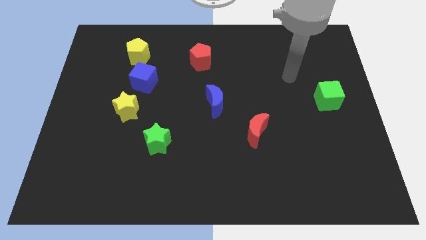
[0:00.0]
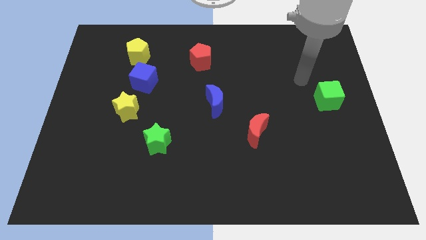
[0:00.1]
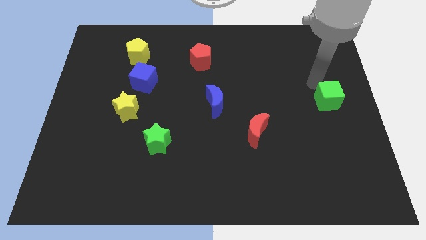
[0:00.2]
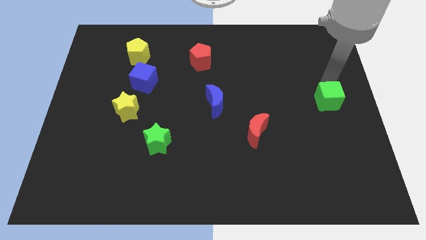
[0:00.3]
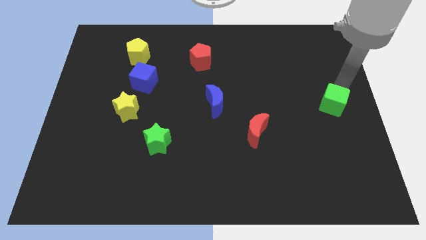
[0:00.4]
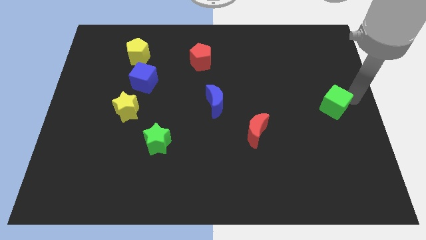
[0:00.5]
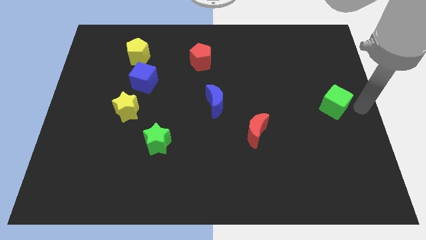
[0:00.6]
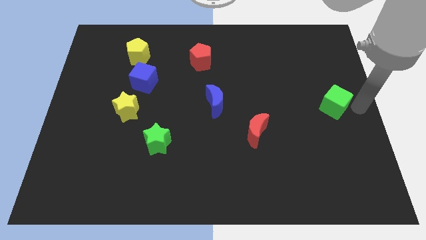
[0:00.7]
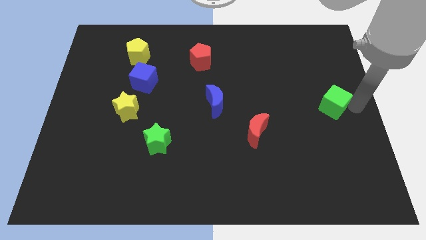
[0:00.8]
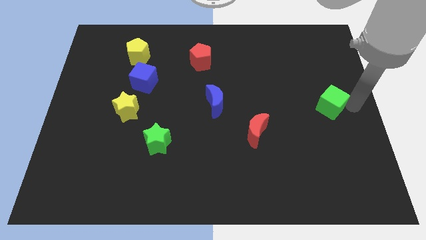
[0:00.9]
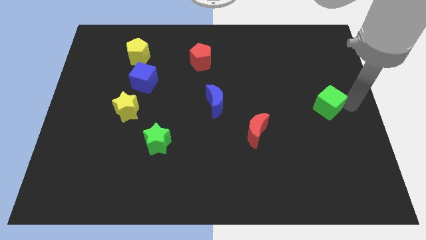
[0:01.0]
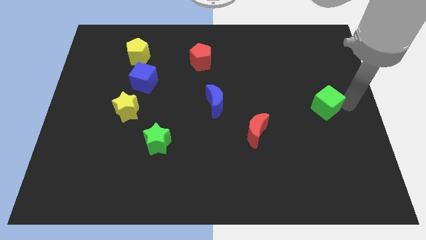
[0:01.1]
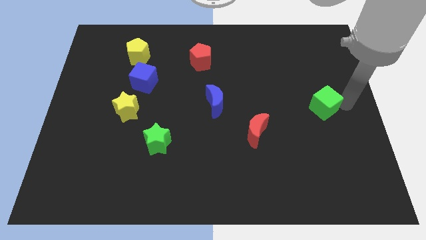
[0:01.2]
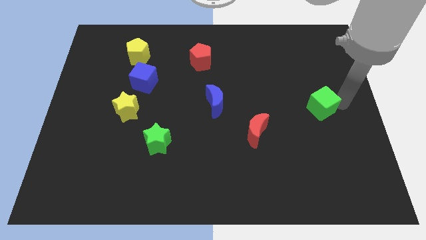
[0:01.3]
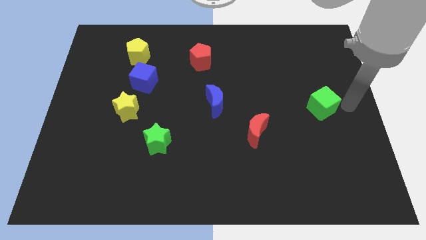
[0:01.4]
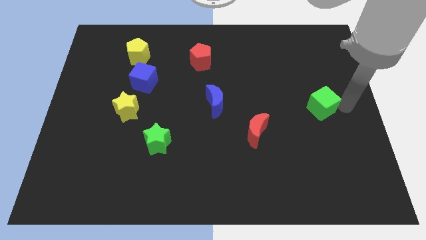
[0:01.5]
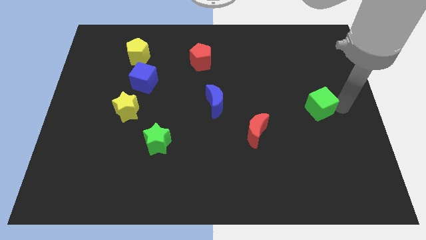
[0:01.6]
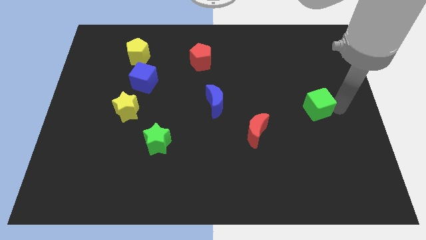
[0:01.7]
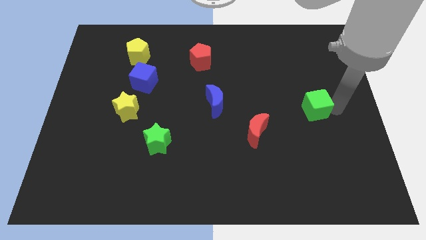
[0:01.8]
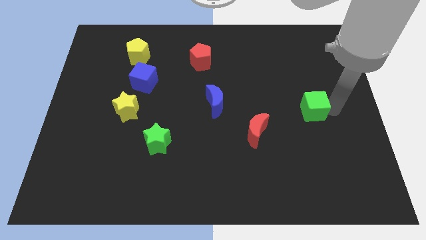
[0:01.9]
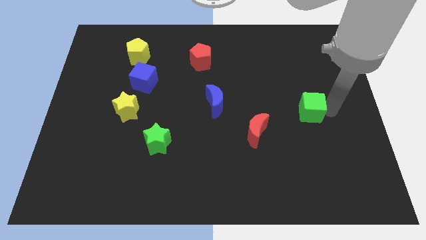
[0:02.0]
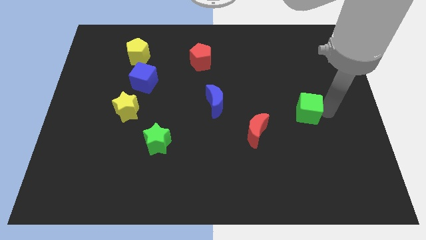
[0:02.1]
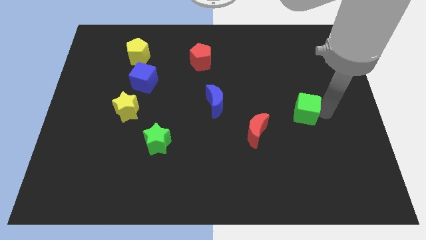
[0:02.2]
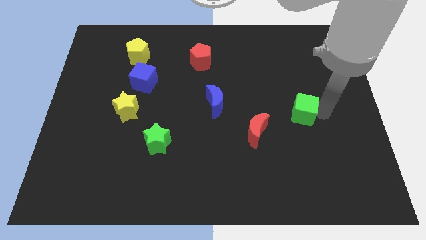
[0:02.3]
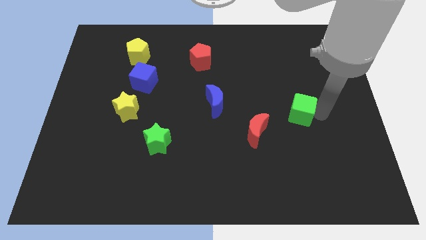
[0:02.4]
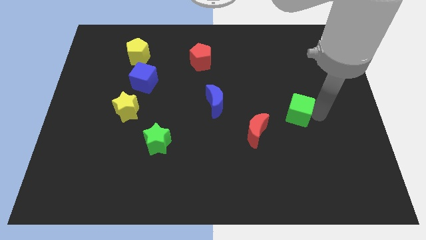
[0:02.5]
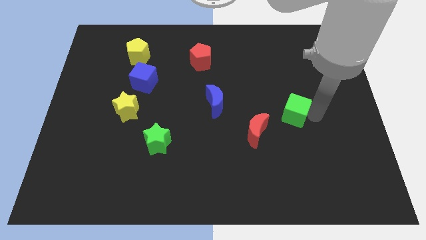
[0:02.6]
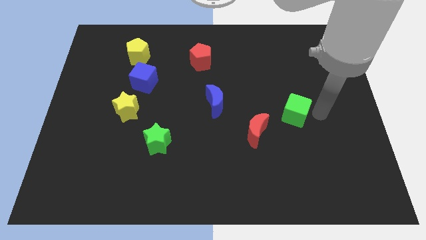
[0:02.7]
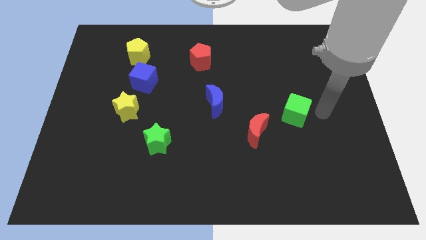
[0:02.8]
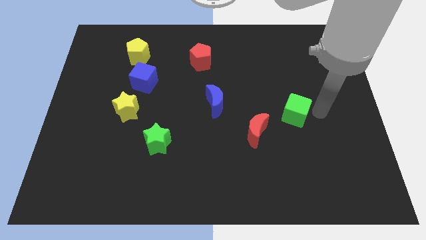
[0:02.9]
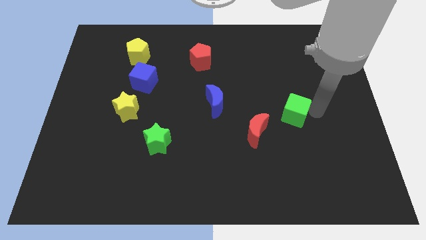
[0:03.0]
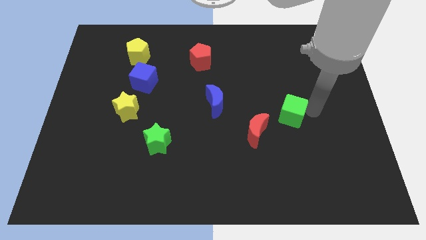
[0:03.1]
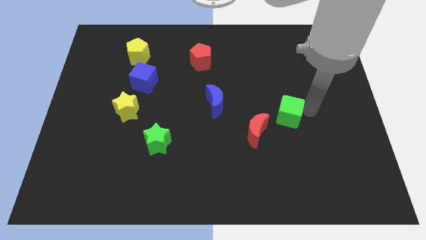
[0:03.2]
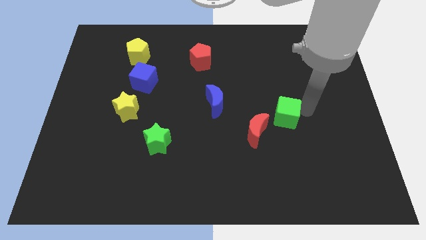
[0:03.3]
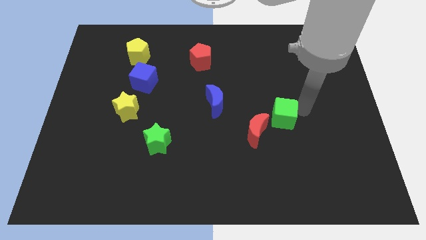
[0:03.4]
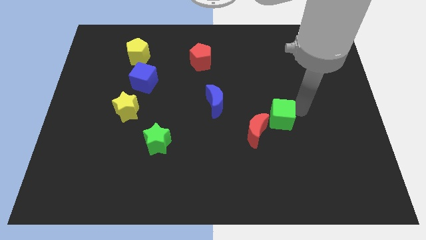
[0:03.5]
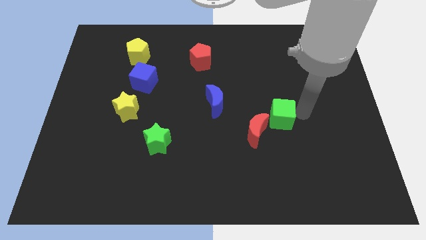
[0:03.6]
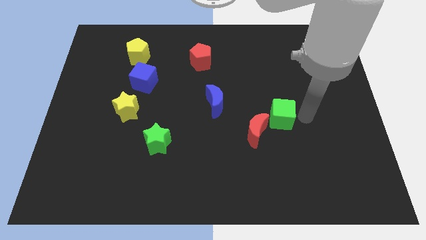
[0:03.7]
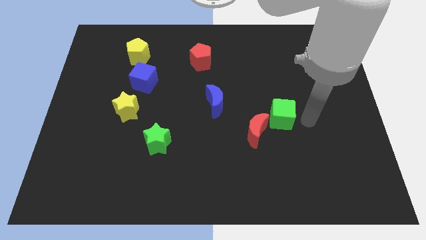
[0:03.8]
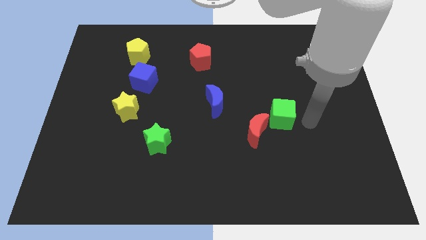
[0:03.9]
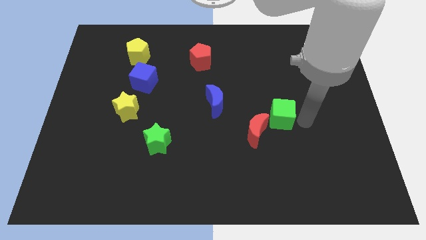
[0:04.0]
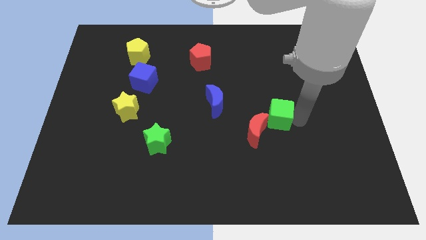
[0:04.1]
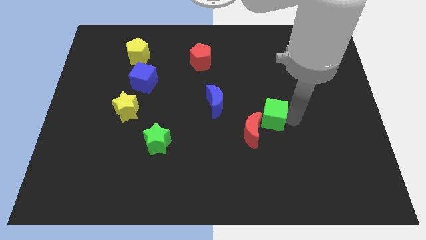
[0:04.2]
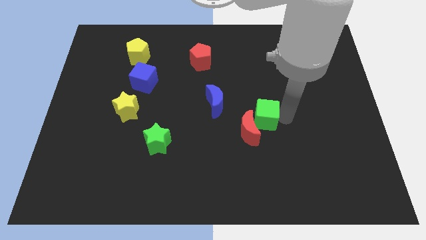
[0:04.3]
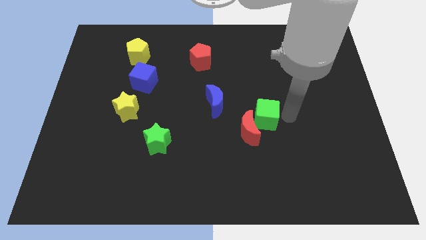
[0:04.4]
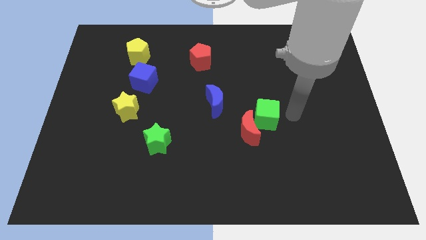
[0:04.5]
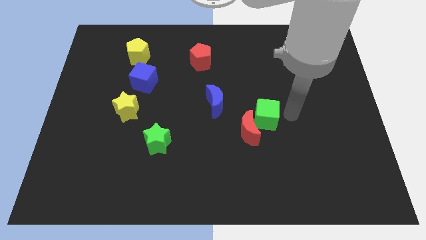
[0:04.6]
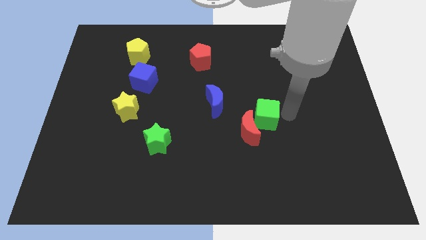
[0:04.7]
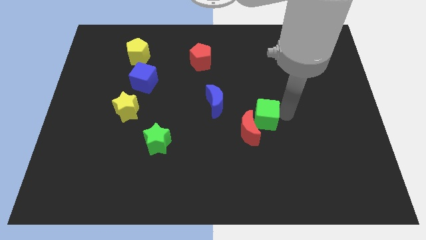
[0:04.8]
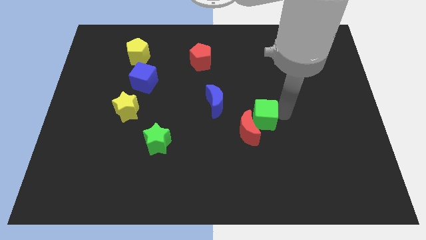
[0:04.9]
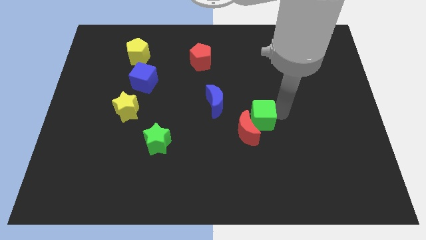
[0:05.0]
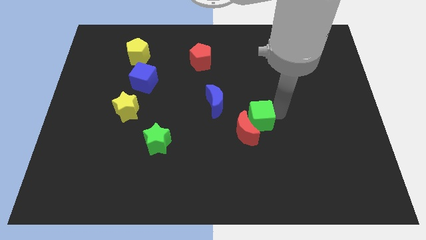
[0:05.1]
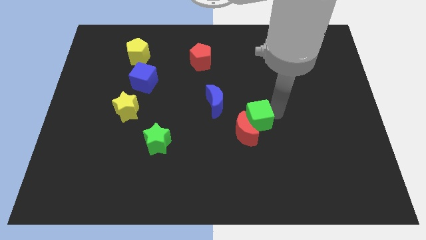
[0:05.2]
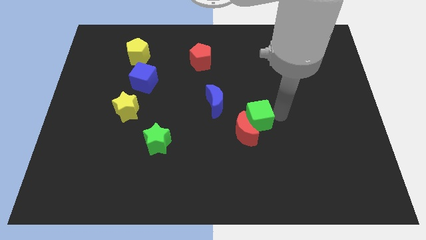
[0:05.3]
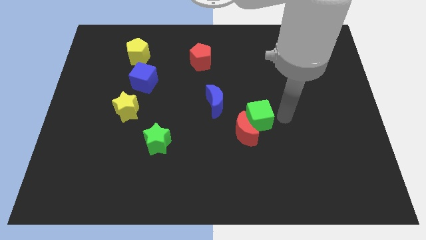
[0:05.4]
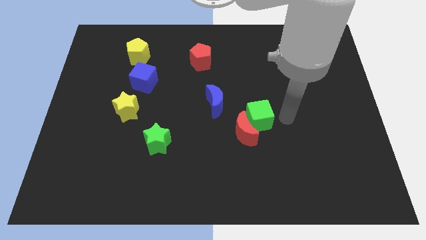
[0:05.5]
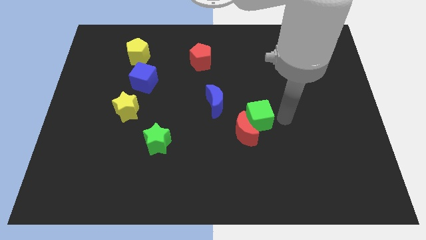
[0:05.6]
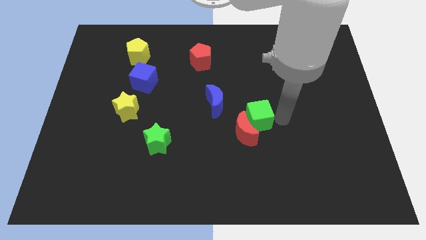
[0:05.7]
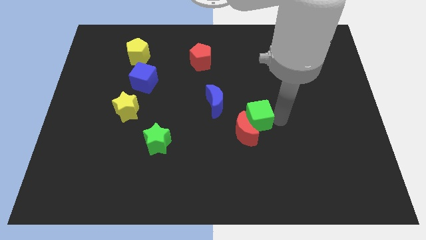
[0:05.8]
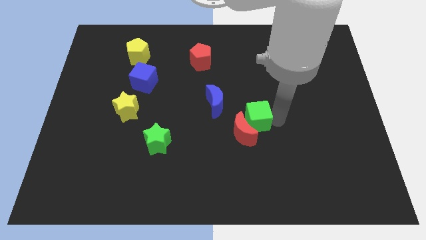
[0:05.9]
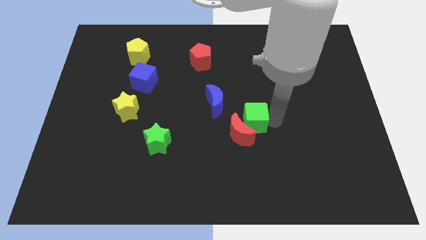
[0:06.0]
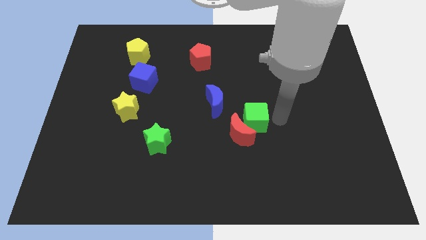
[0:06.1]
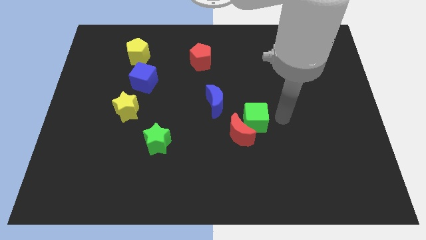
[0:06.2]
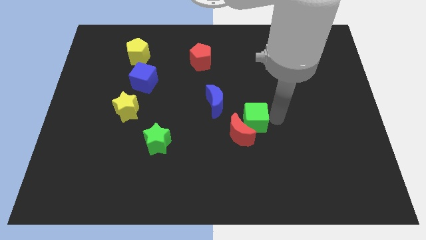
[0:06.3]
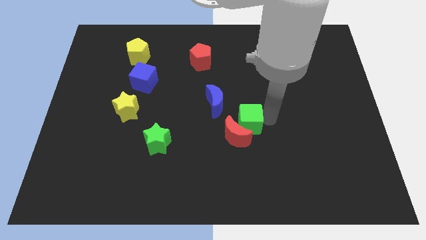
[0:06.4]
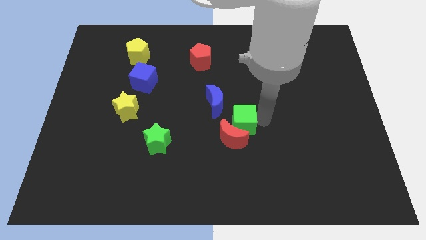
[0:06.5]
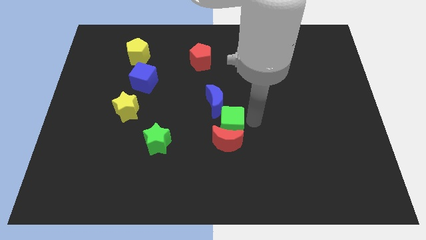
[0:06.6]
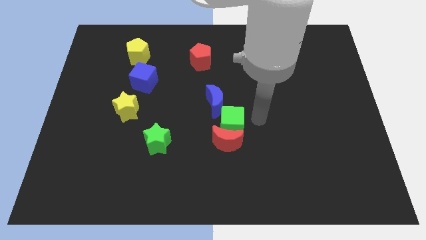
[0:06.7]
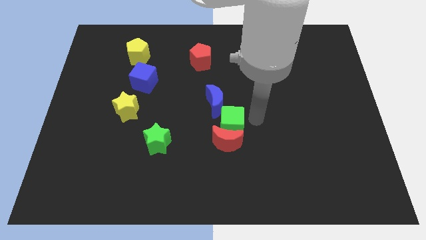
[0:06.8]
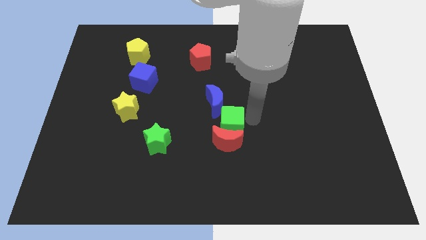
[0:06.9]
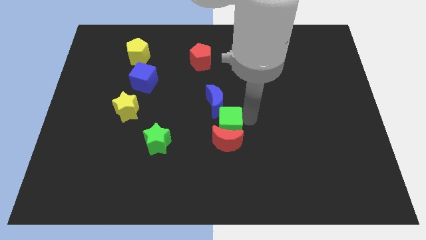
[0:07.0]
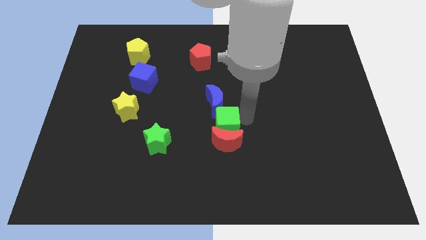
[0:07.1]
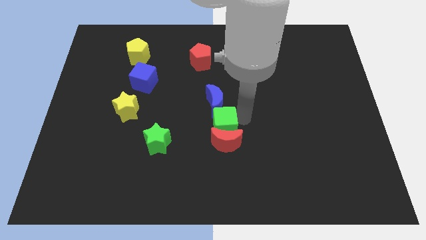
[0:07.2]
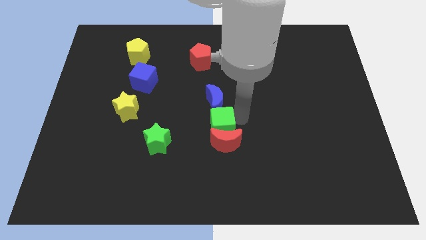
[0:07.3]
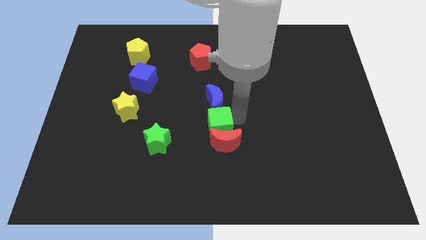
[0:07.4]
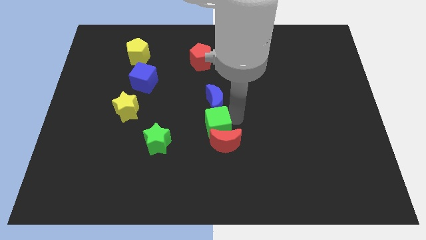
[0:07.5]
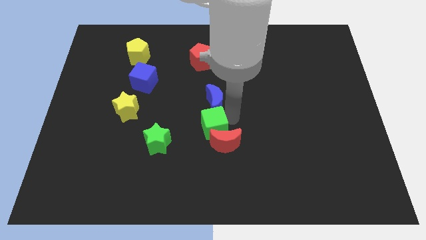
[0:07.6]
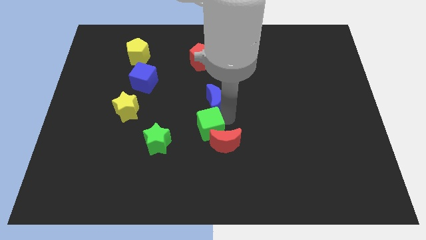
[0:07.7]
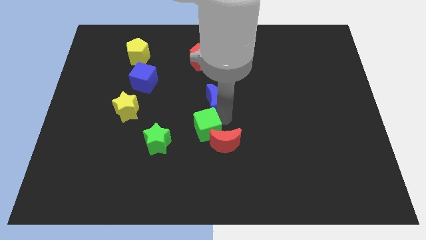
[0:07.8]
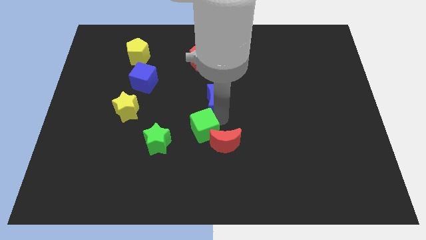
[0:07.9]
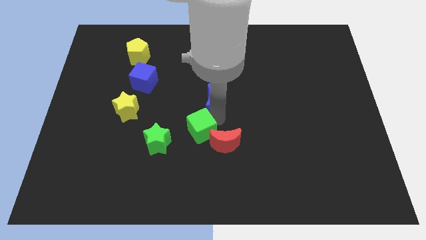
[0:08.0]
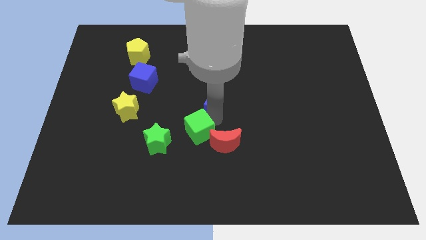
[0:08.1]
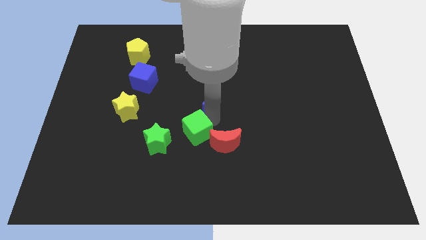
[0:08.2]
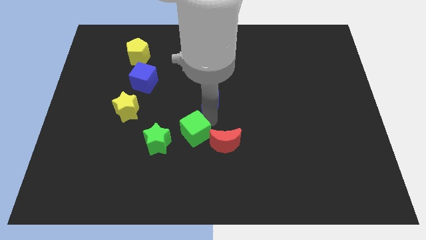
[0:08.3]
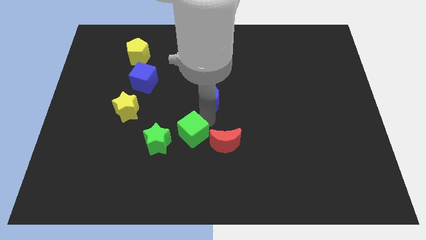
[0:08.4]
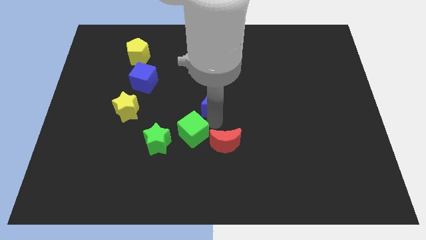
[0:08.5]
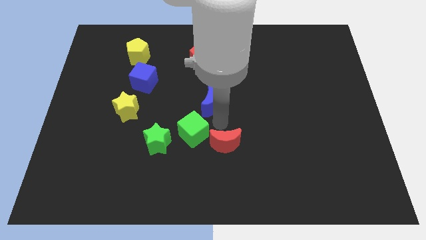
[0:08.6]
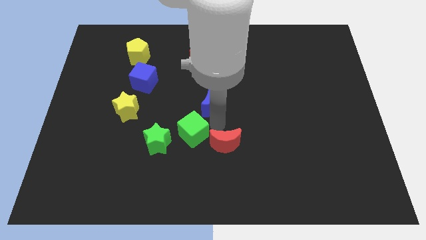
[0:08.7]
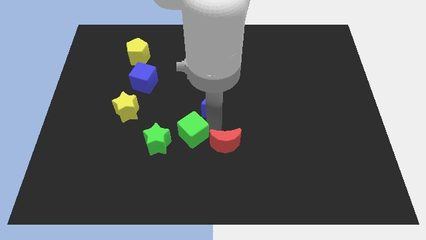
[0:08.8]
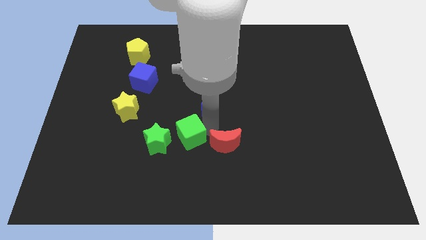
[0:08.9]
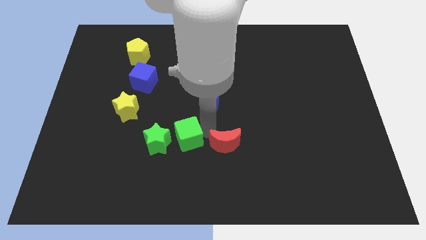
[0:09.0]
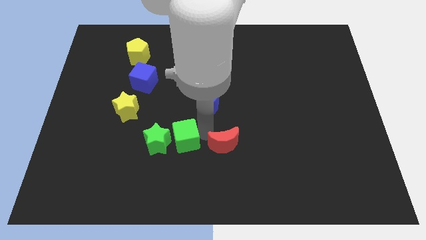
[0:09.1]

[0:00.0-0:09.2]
push the green cube next to the green star
